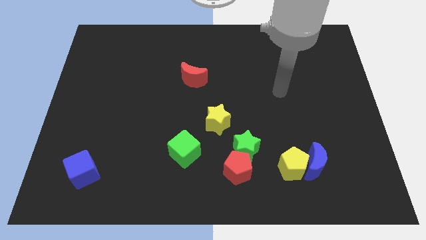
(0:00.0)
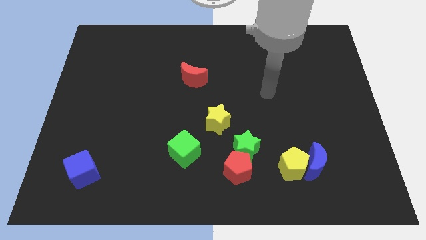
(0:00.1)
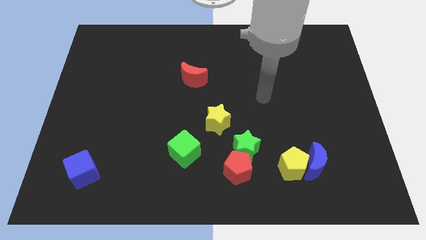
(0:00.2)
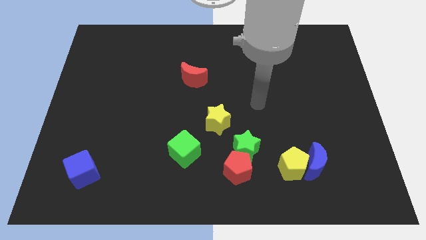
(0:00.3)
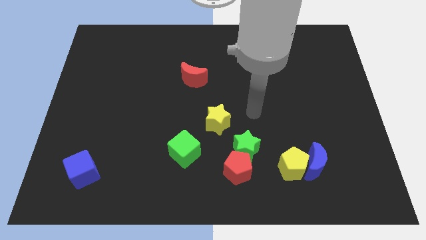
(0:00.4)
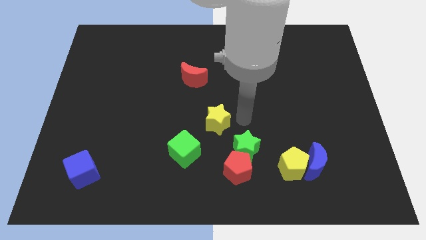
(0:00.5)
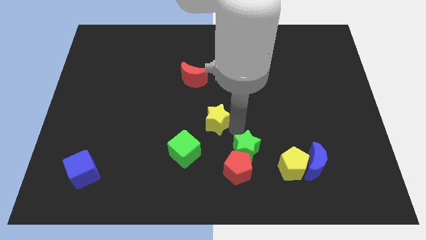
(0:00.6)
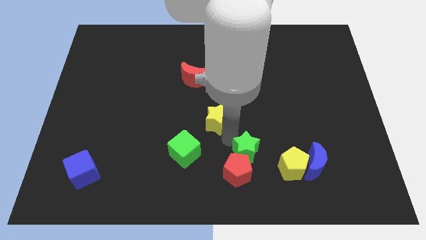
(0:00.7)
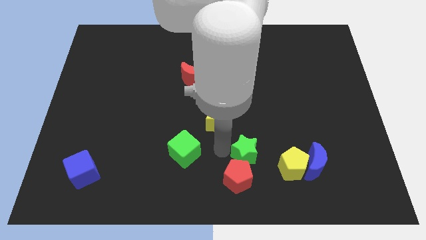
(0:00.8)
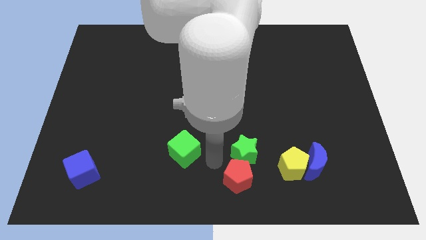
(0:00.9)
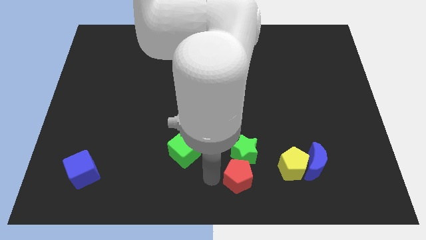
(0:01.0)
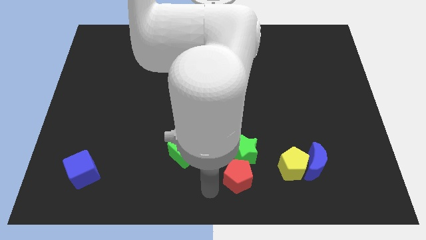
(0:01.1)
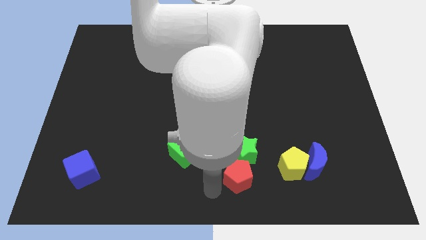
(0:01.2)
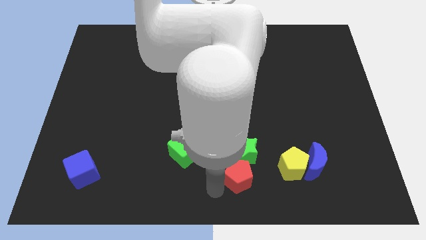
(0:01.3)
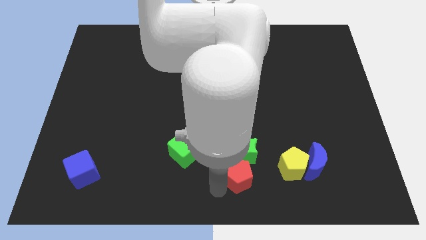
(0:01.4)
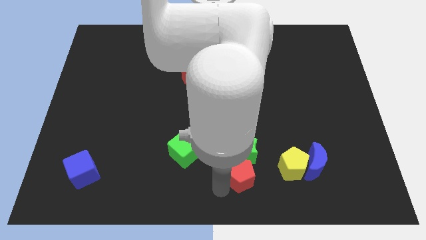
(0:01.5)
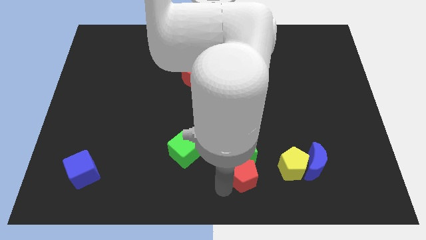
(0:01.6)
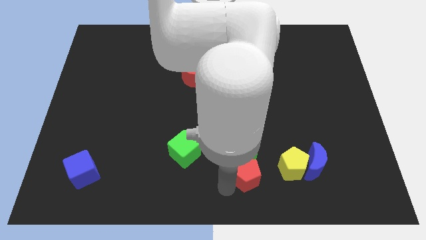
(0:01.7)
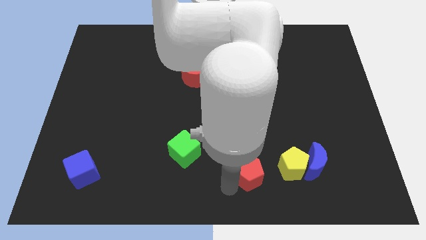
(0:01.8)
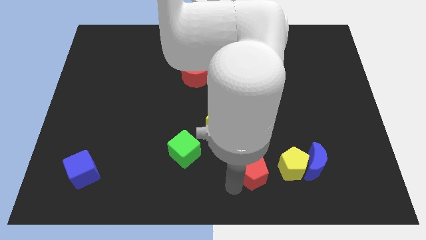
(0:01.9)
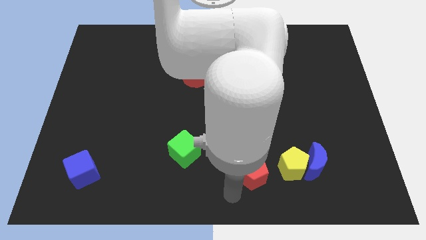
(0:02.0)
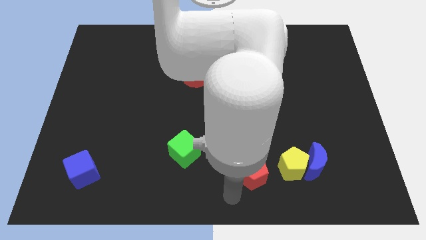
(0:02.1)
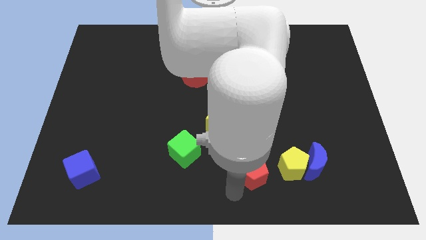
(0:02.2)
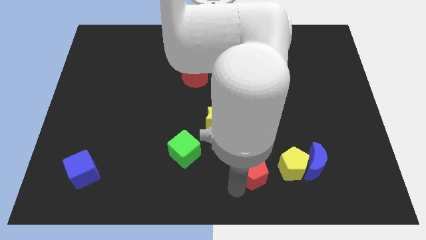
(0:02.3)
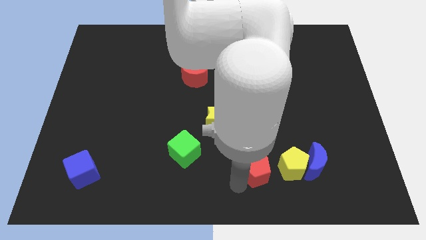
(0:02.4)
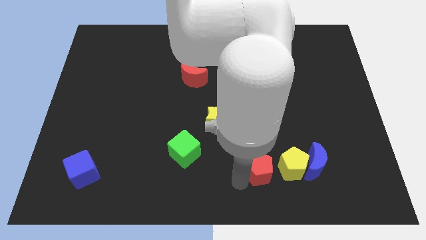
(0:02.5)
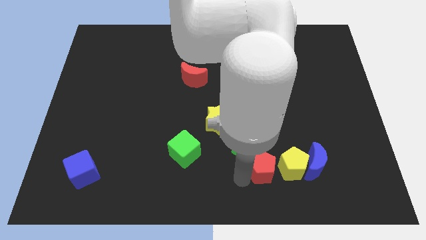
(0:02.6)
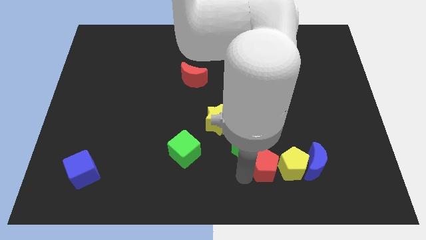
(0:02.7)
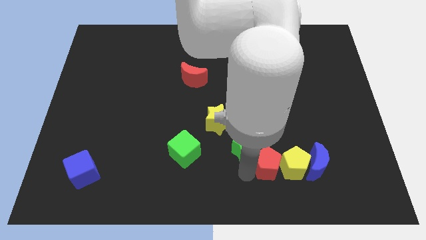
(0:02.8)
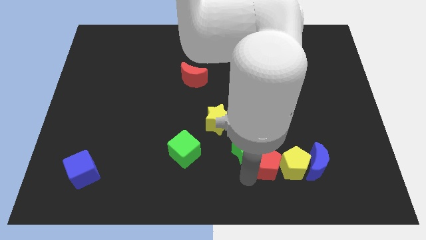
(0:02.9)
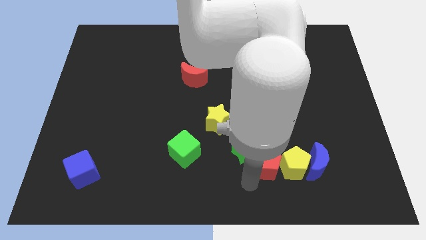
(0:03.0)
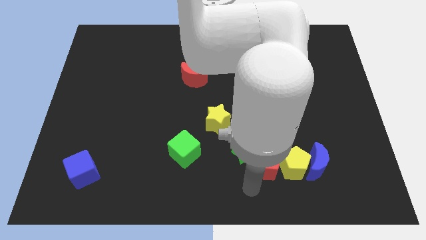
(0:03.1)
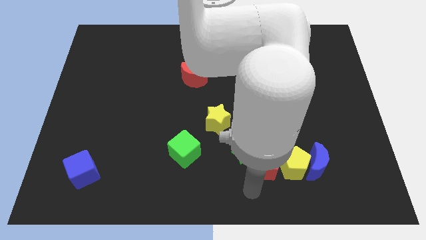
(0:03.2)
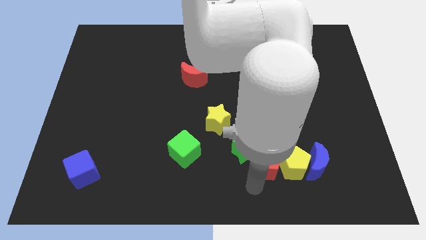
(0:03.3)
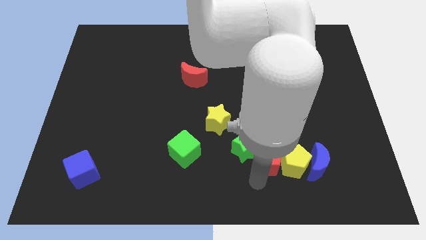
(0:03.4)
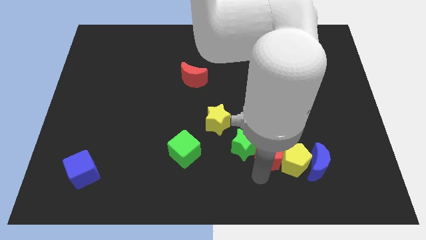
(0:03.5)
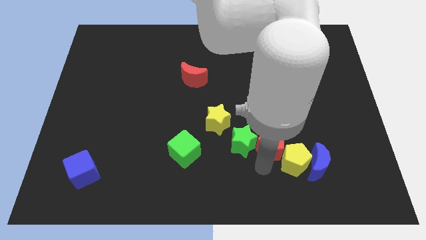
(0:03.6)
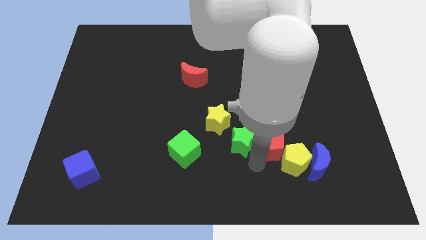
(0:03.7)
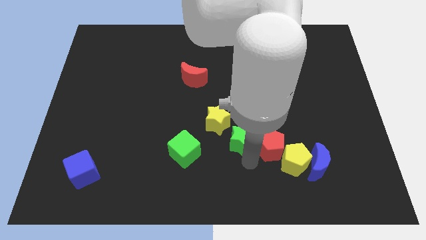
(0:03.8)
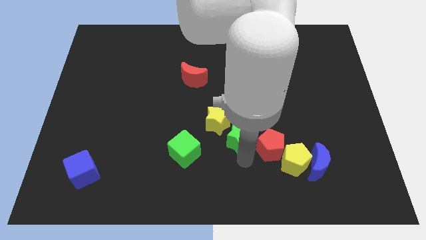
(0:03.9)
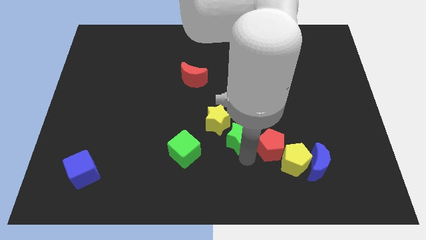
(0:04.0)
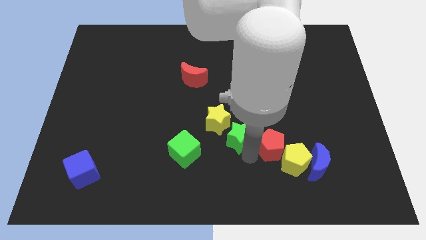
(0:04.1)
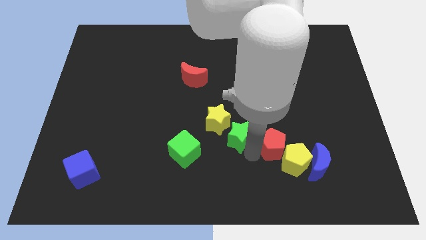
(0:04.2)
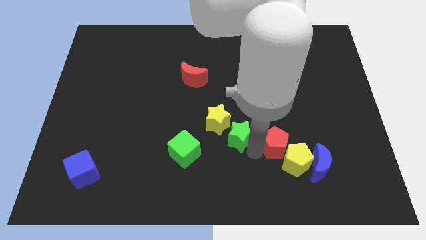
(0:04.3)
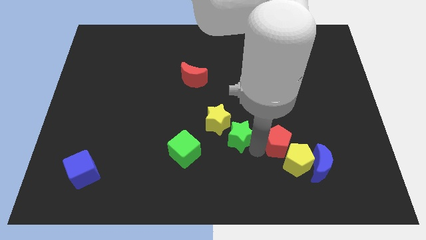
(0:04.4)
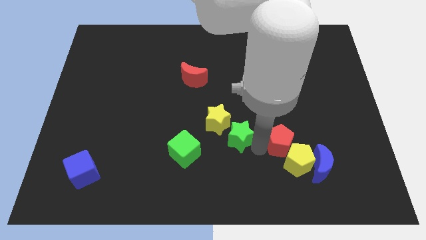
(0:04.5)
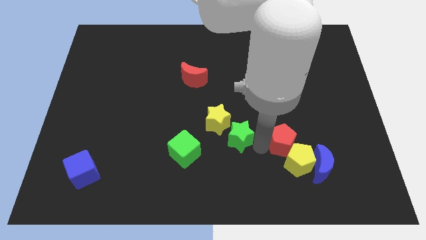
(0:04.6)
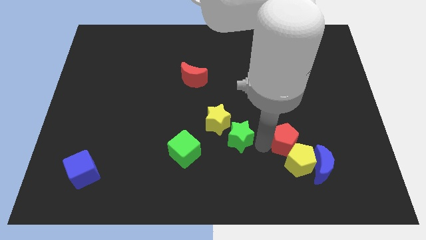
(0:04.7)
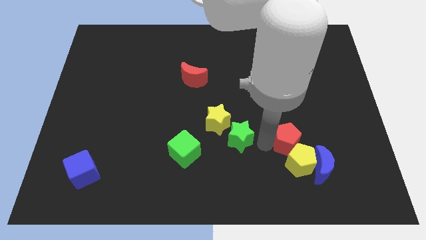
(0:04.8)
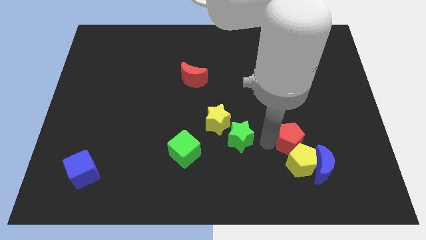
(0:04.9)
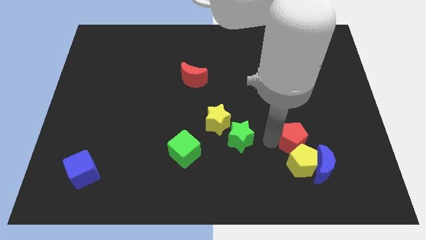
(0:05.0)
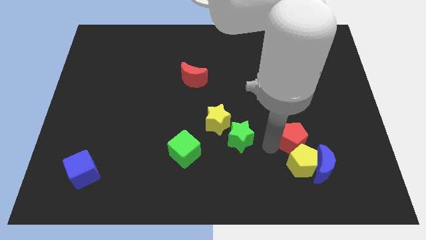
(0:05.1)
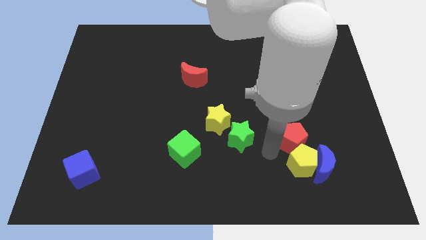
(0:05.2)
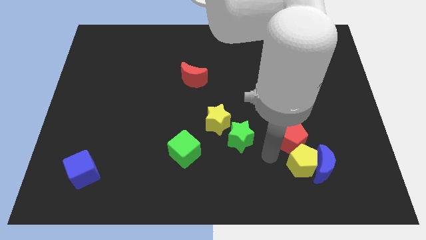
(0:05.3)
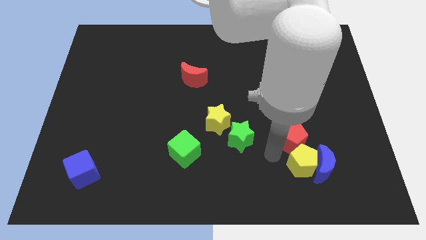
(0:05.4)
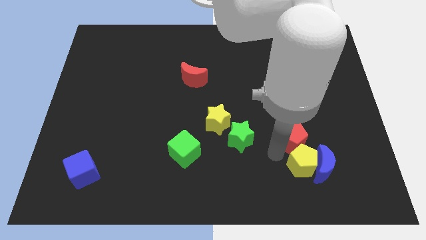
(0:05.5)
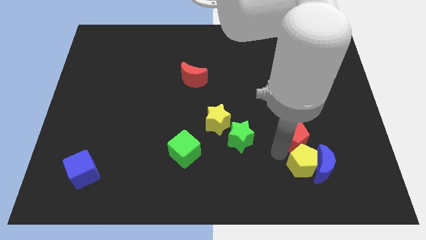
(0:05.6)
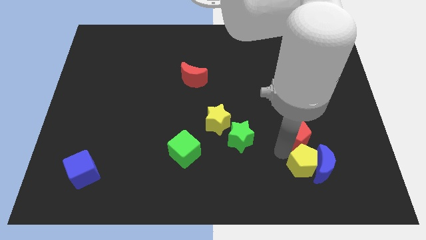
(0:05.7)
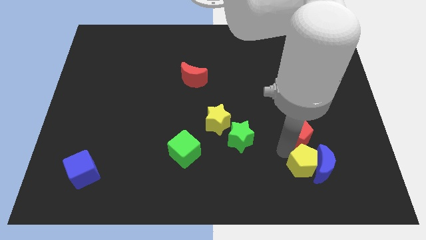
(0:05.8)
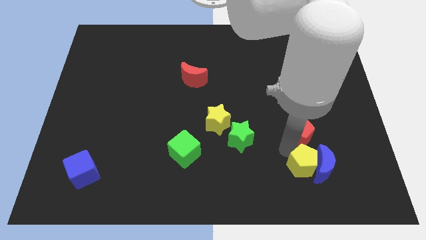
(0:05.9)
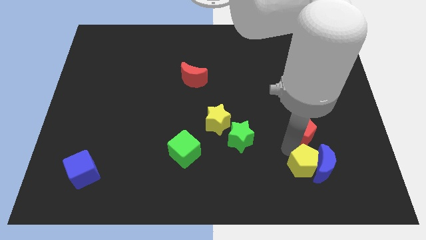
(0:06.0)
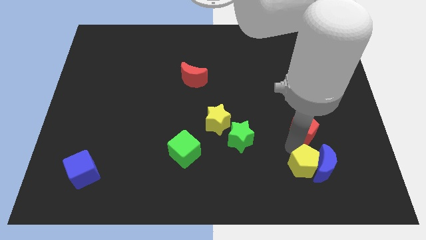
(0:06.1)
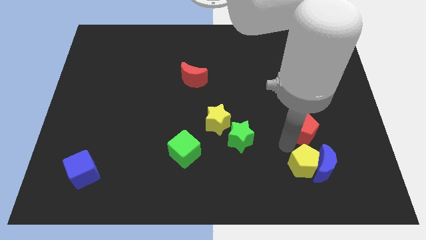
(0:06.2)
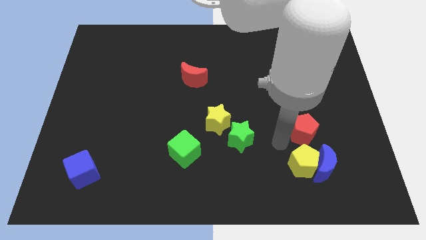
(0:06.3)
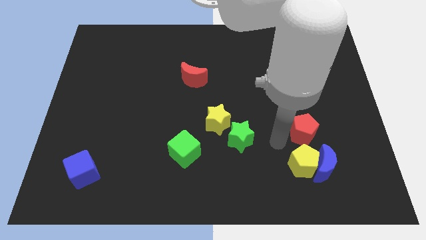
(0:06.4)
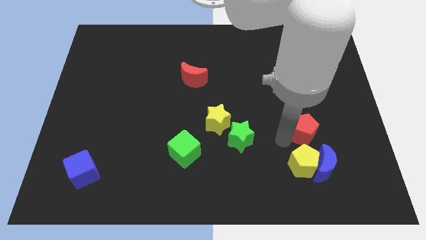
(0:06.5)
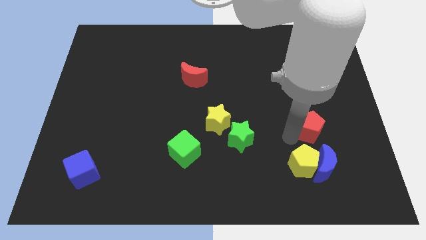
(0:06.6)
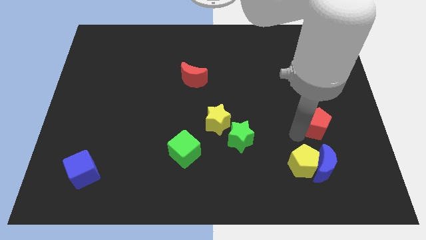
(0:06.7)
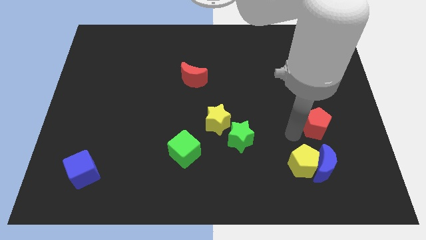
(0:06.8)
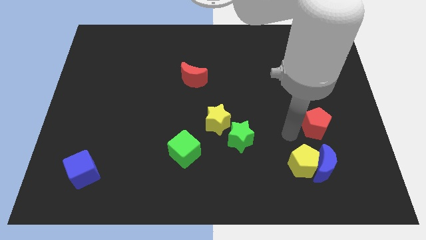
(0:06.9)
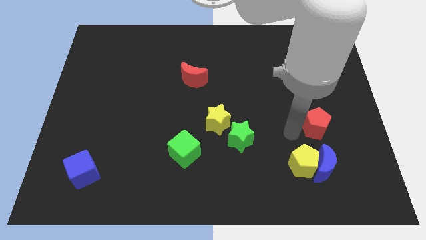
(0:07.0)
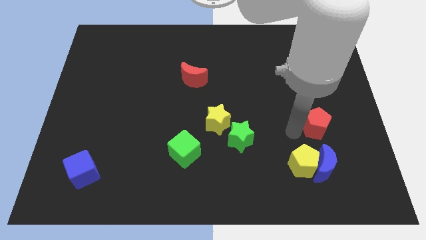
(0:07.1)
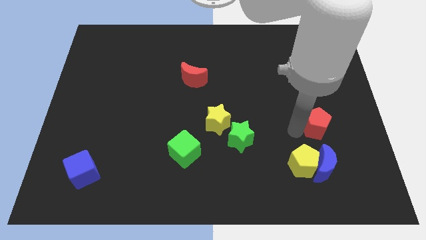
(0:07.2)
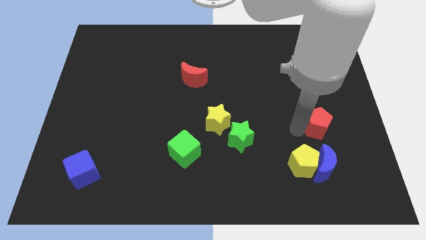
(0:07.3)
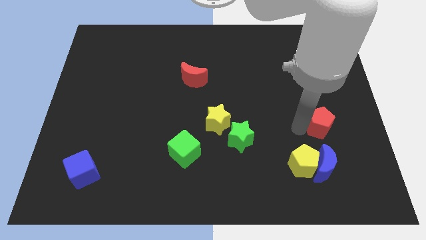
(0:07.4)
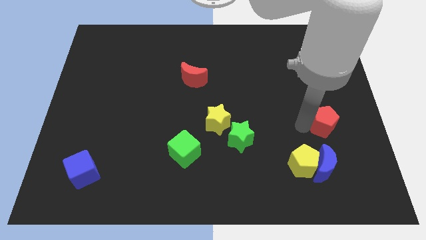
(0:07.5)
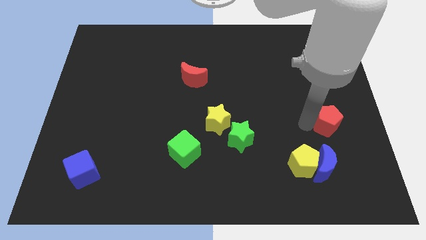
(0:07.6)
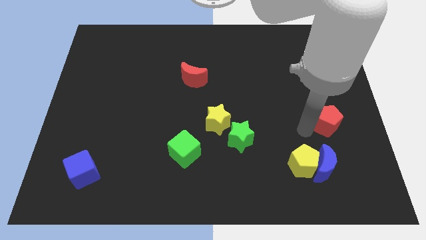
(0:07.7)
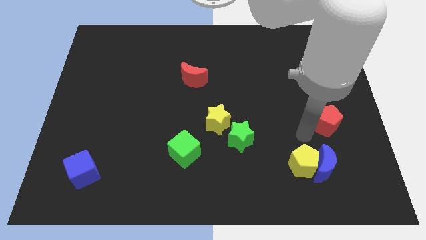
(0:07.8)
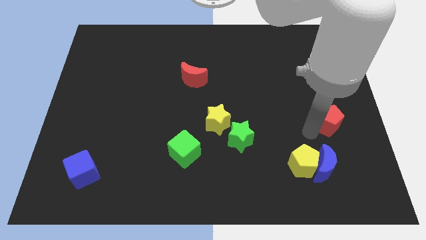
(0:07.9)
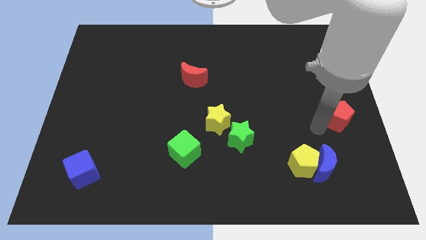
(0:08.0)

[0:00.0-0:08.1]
push the red pentagon to the right side of the board
